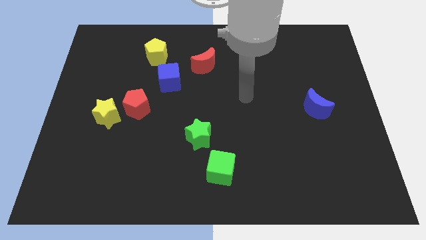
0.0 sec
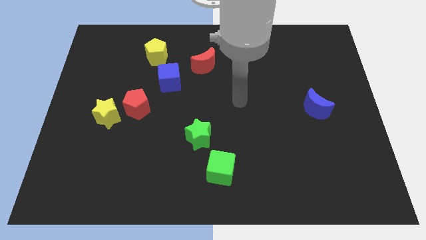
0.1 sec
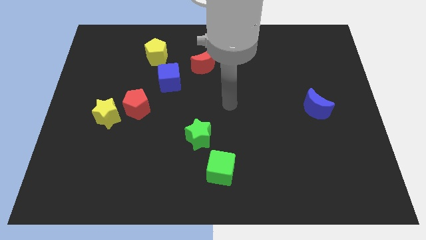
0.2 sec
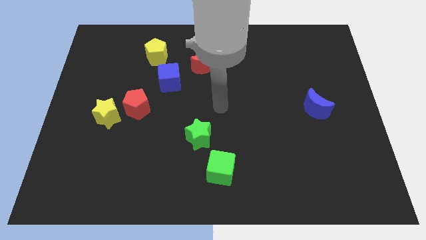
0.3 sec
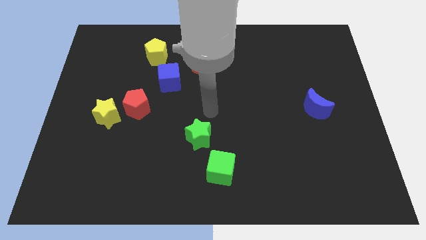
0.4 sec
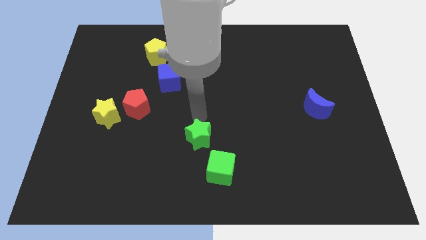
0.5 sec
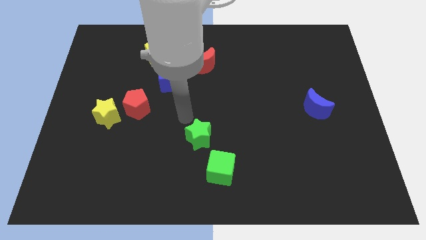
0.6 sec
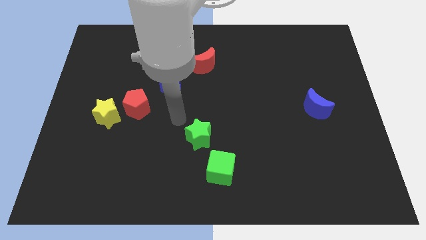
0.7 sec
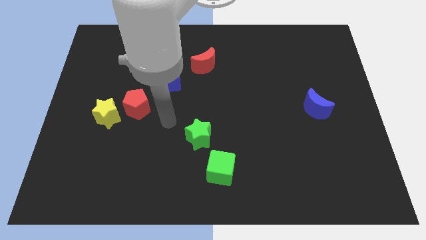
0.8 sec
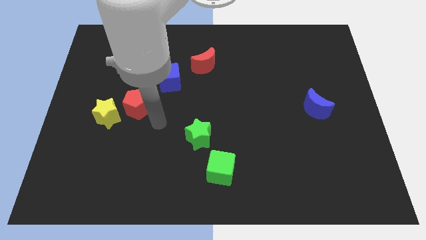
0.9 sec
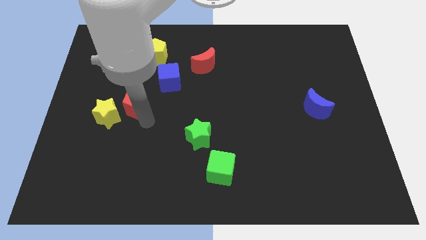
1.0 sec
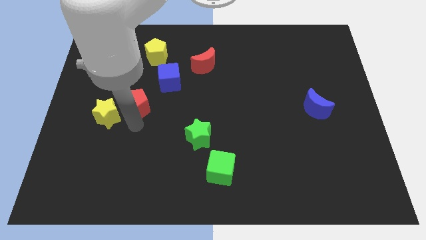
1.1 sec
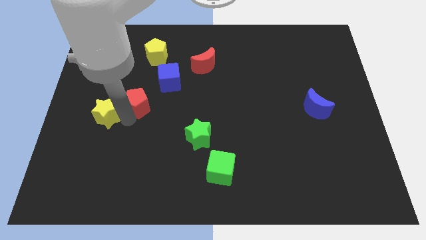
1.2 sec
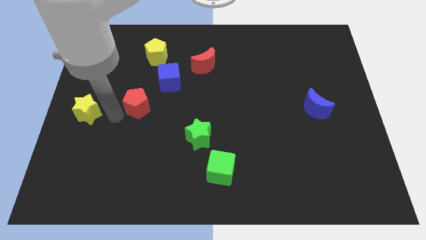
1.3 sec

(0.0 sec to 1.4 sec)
separate the red pentagon from the yellow star

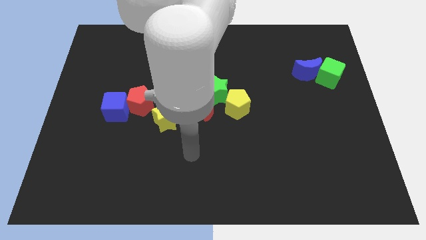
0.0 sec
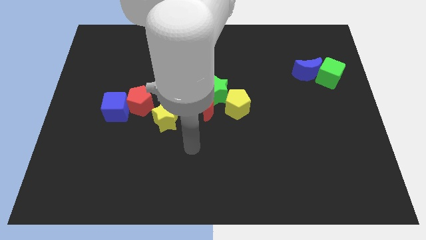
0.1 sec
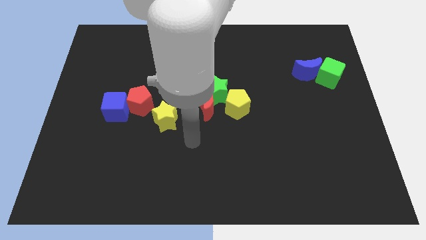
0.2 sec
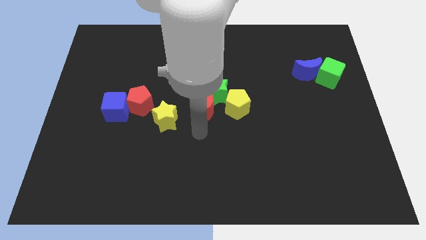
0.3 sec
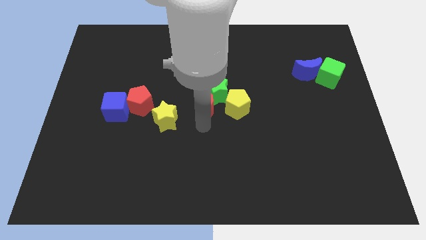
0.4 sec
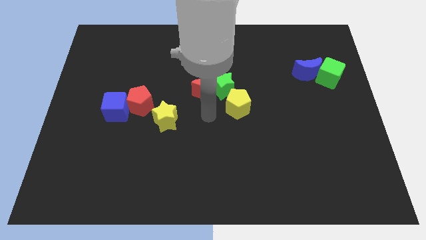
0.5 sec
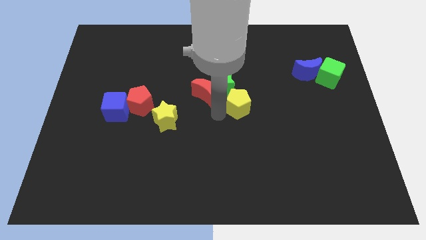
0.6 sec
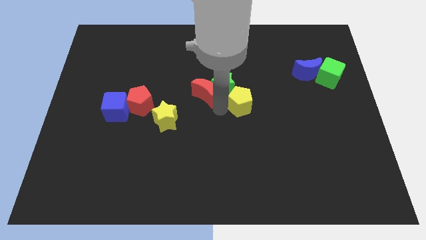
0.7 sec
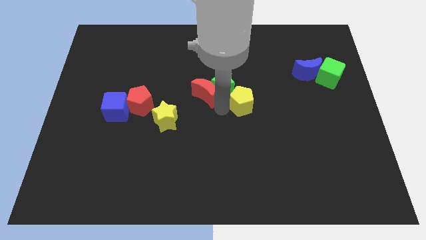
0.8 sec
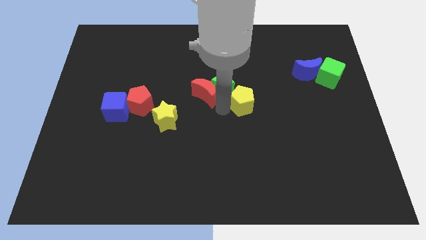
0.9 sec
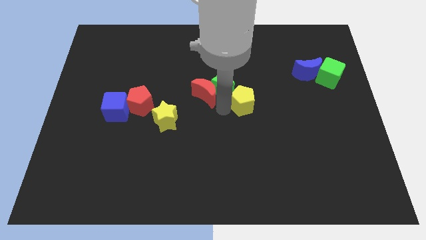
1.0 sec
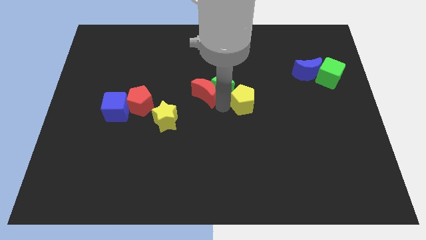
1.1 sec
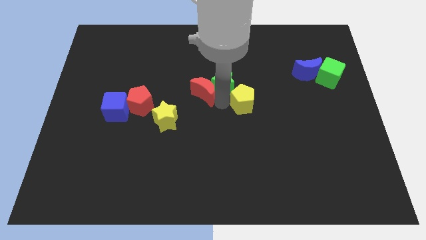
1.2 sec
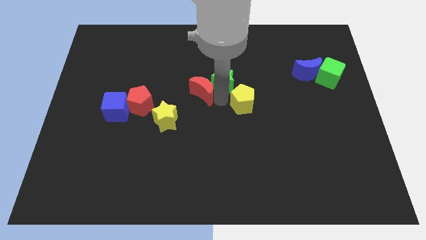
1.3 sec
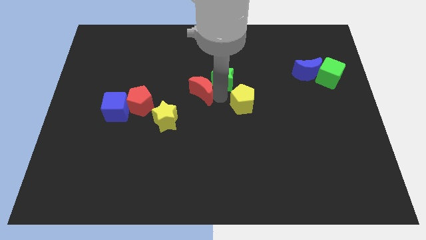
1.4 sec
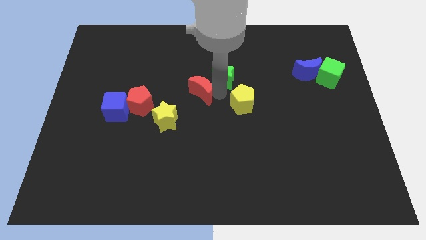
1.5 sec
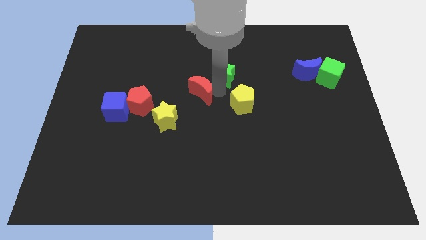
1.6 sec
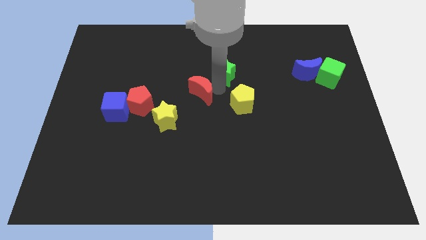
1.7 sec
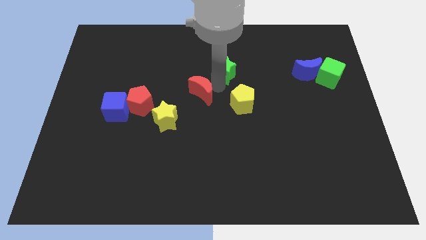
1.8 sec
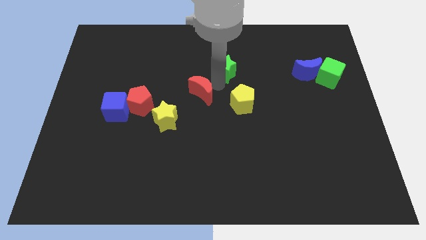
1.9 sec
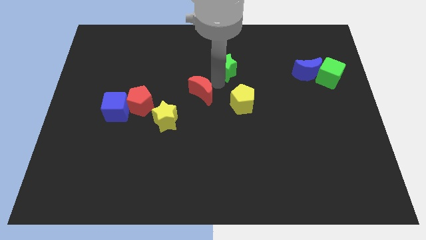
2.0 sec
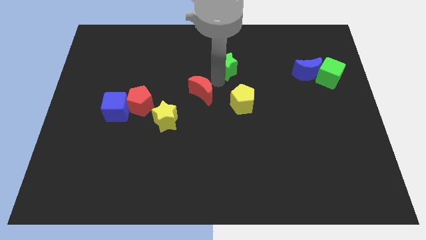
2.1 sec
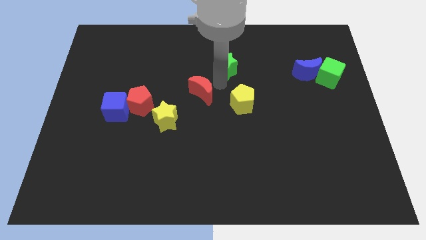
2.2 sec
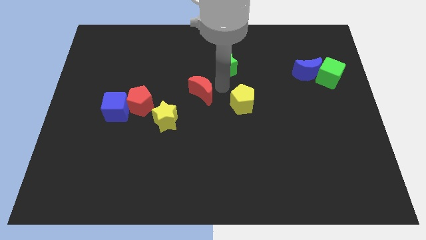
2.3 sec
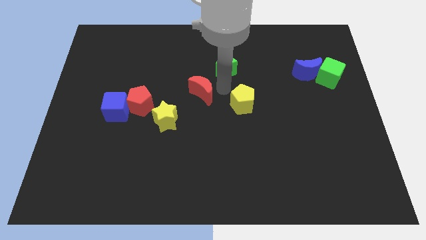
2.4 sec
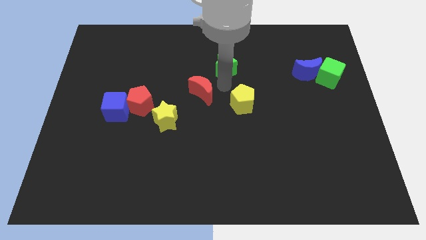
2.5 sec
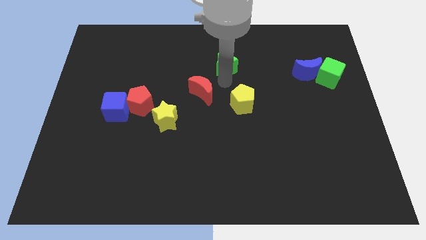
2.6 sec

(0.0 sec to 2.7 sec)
pull the green star apart from the red moon and yellow pentagon

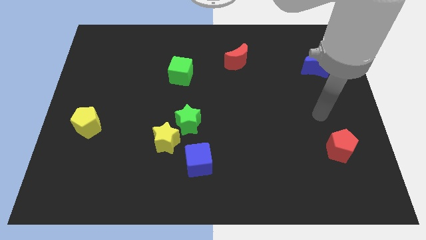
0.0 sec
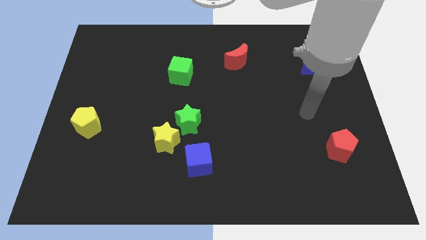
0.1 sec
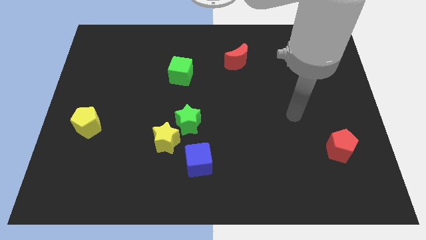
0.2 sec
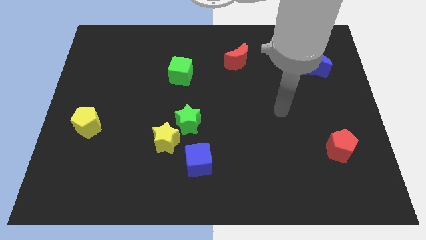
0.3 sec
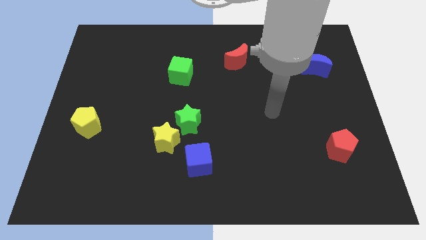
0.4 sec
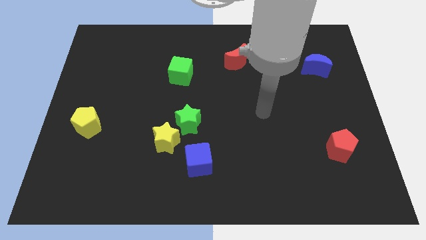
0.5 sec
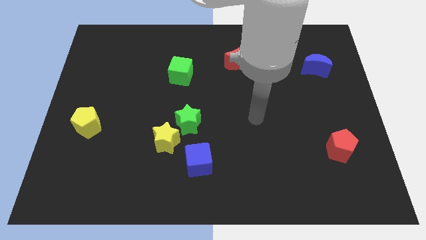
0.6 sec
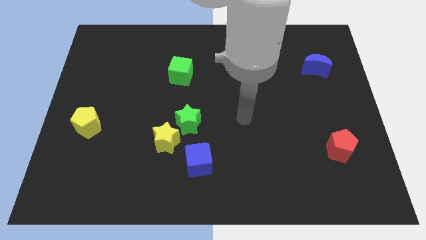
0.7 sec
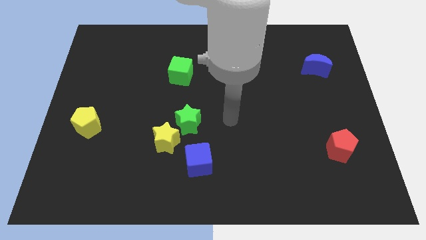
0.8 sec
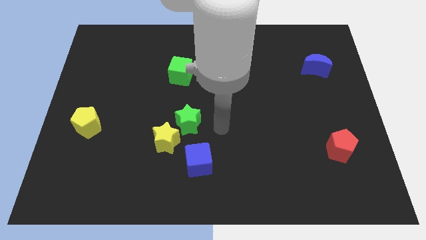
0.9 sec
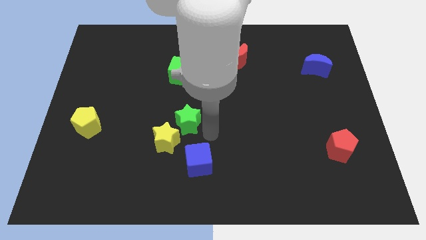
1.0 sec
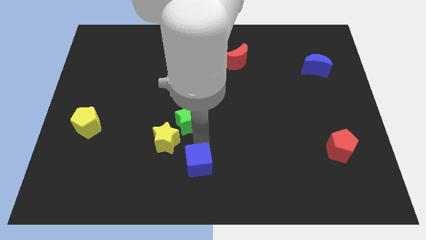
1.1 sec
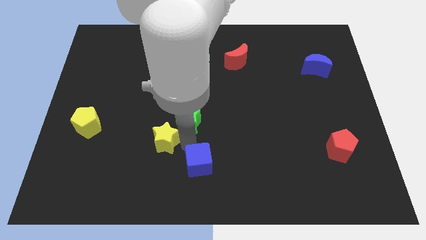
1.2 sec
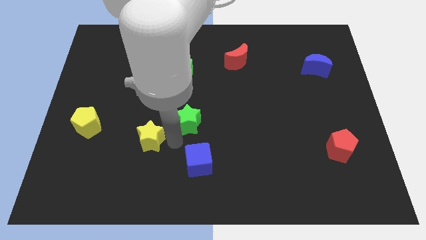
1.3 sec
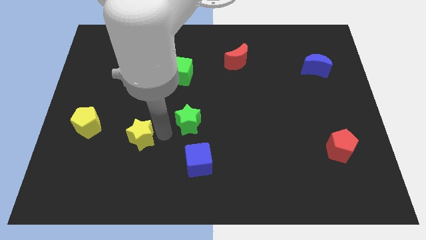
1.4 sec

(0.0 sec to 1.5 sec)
pull the green star apart from the yellow star

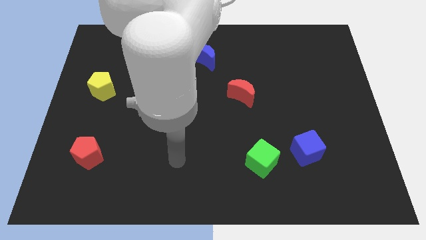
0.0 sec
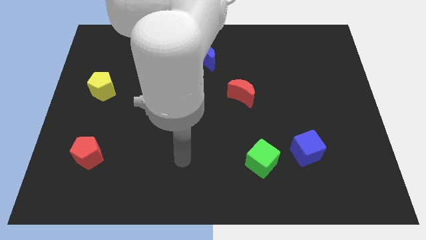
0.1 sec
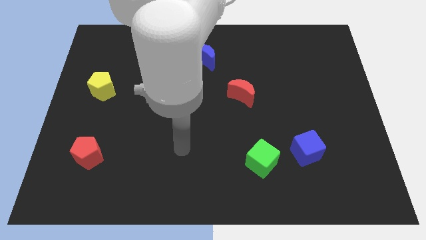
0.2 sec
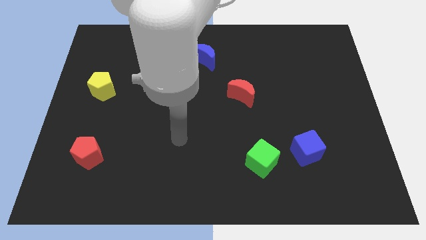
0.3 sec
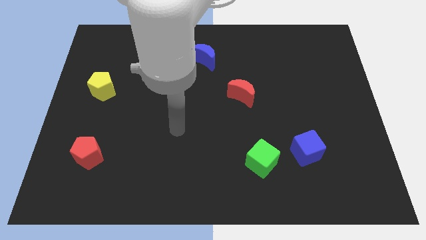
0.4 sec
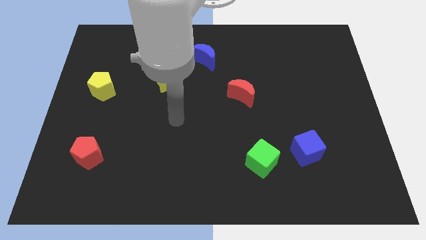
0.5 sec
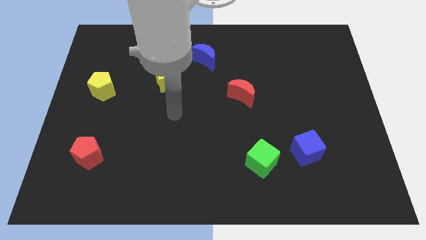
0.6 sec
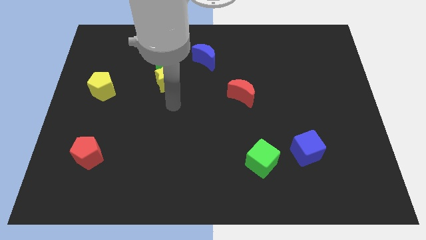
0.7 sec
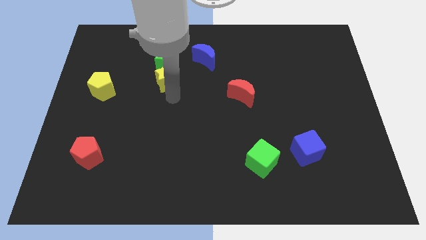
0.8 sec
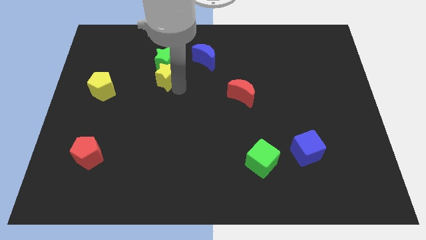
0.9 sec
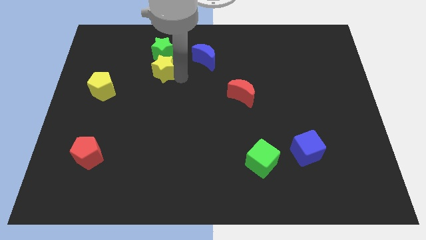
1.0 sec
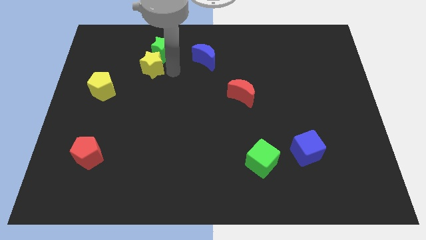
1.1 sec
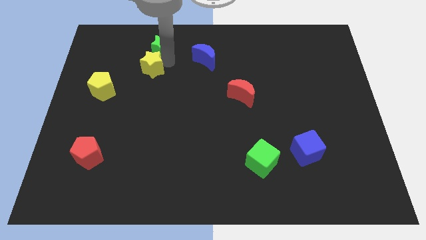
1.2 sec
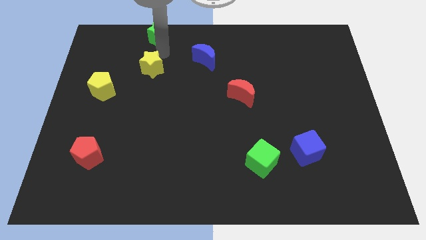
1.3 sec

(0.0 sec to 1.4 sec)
separate the yellow star from the green star

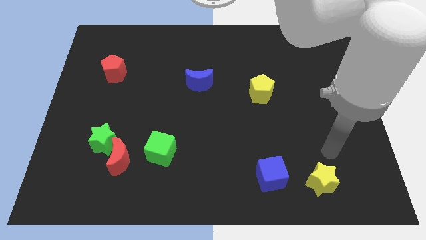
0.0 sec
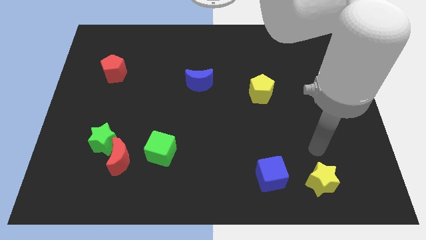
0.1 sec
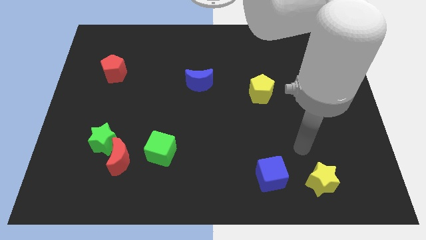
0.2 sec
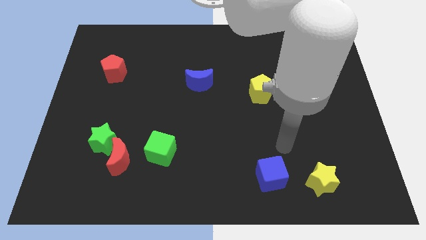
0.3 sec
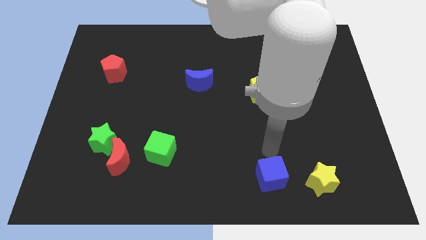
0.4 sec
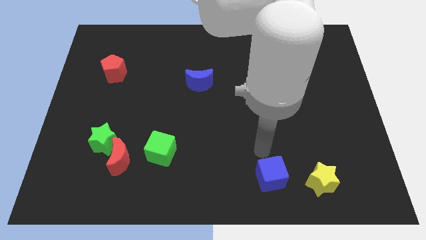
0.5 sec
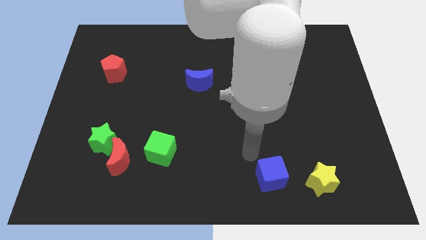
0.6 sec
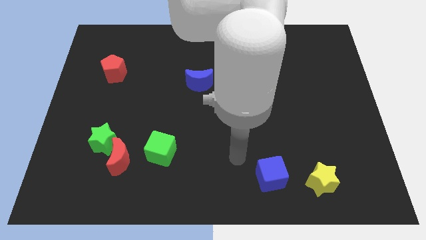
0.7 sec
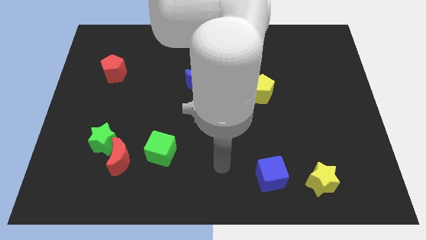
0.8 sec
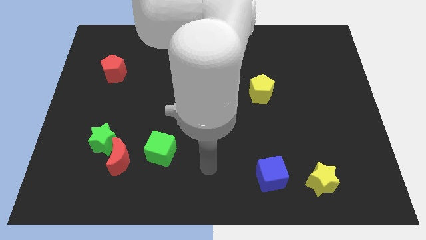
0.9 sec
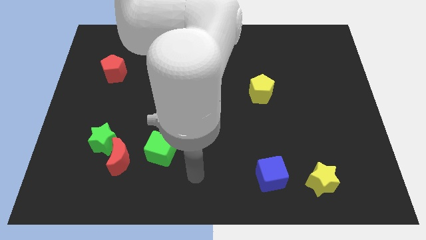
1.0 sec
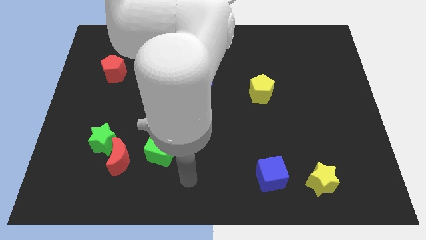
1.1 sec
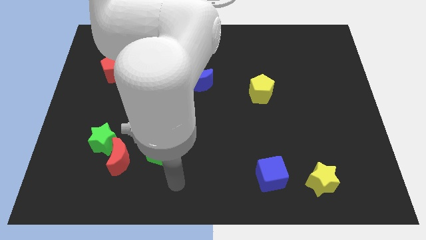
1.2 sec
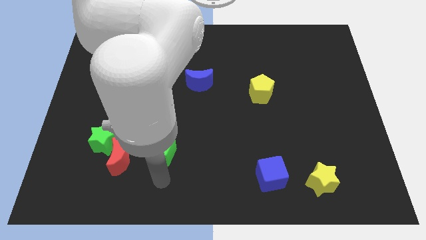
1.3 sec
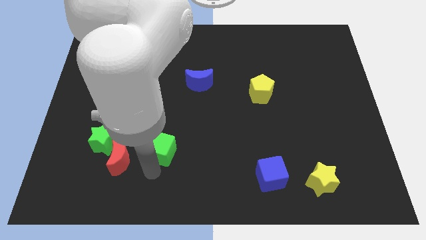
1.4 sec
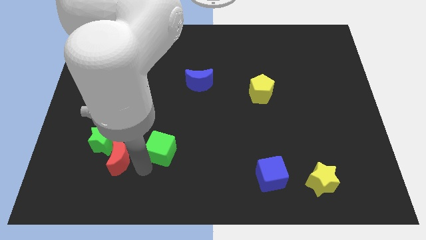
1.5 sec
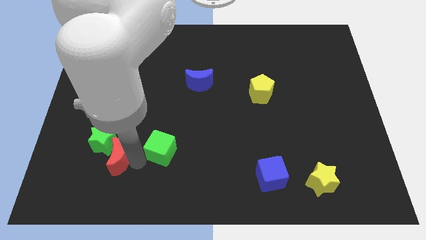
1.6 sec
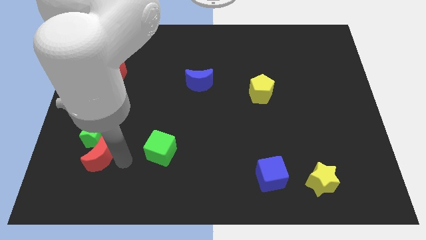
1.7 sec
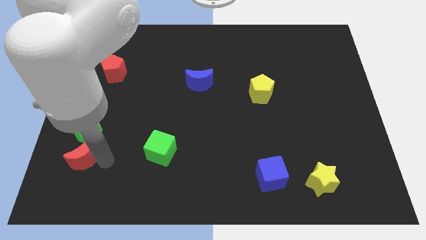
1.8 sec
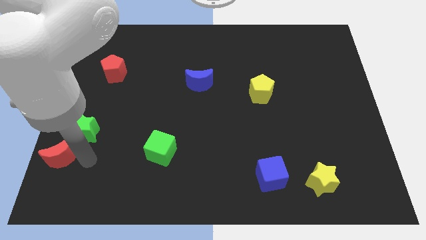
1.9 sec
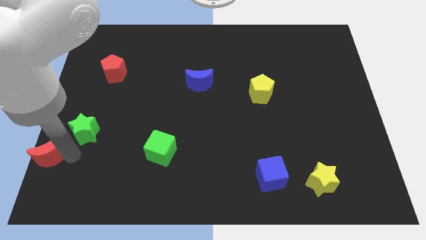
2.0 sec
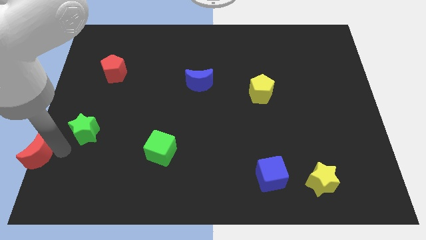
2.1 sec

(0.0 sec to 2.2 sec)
pull the green star apart from the red moon

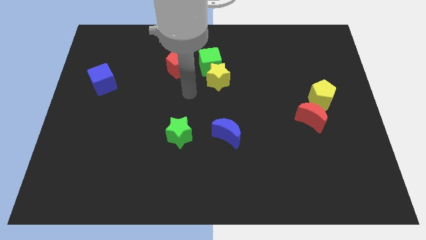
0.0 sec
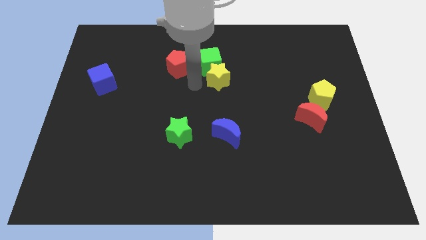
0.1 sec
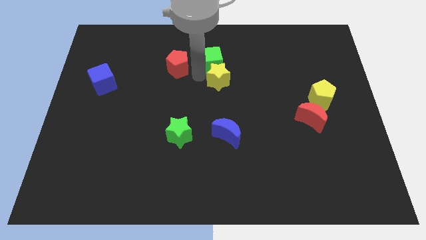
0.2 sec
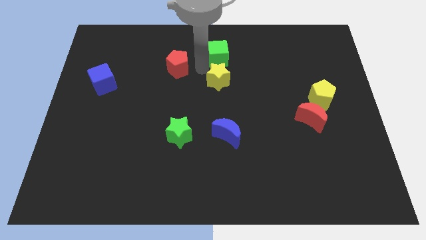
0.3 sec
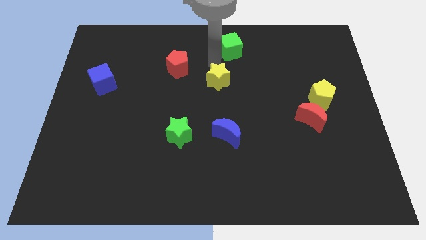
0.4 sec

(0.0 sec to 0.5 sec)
move the yellow star away from the green cube
